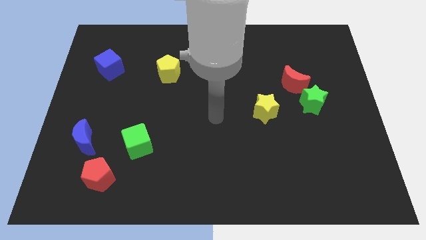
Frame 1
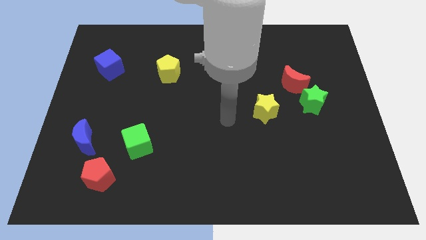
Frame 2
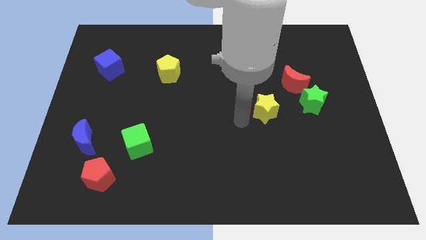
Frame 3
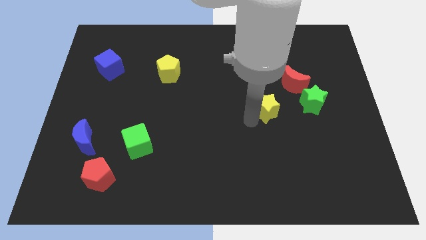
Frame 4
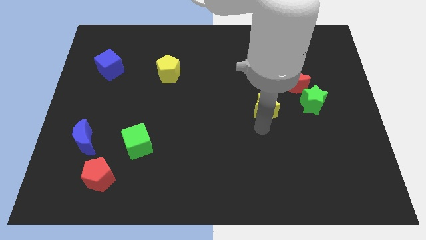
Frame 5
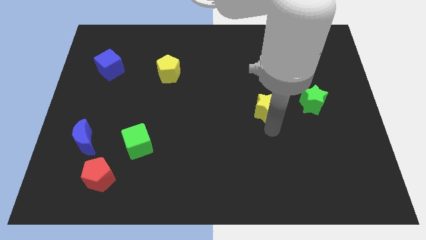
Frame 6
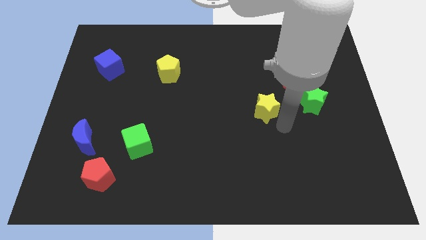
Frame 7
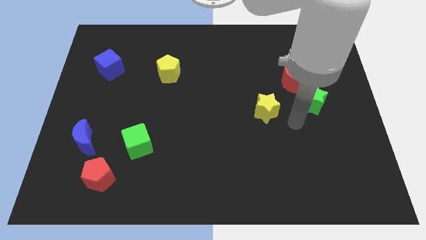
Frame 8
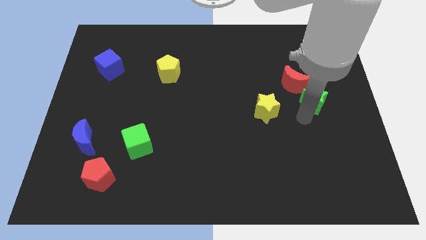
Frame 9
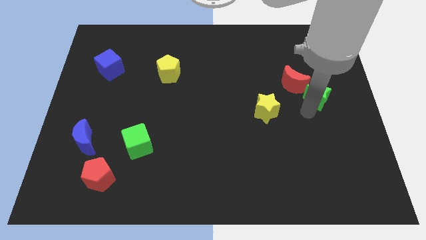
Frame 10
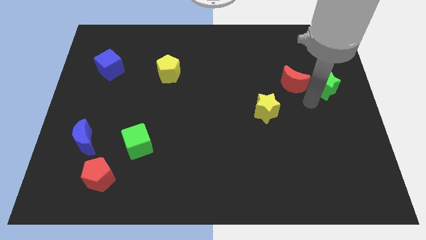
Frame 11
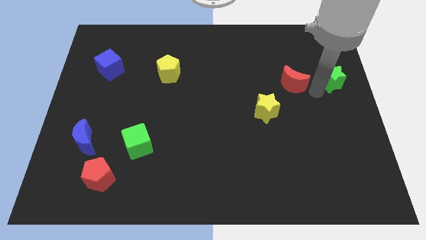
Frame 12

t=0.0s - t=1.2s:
separate the red moon from the green star

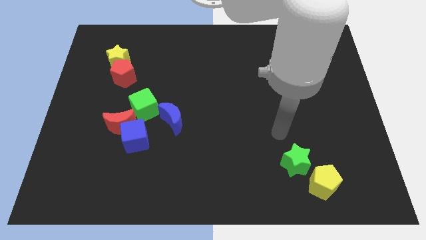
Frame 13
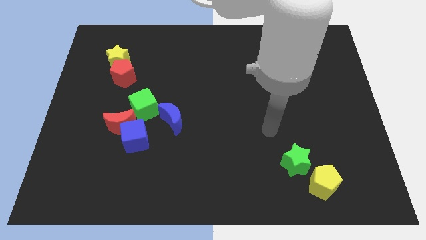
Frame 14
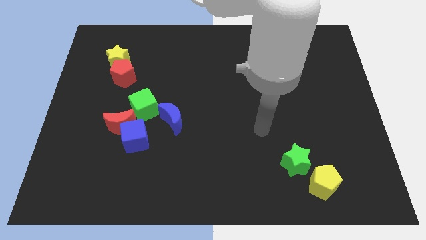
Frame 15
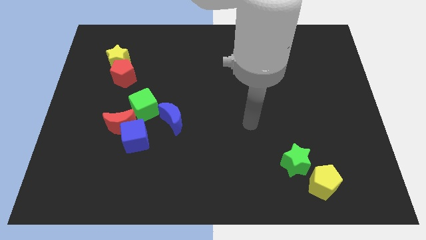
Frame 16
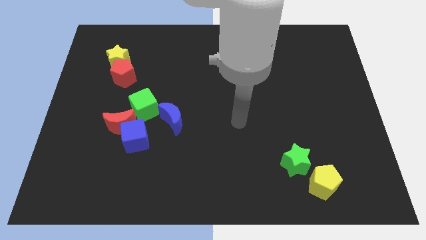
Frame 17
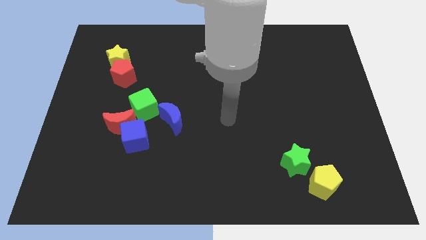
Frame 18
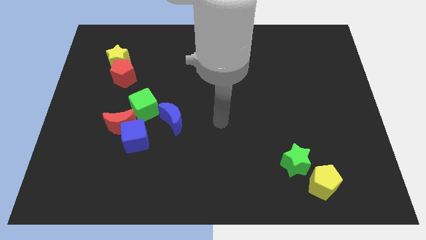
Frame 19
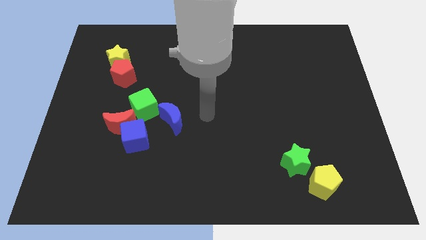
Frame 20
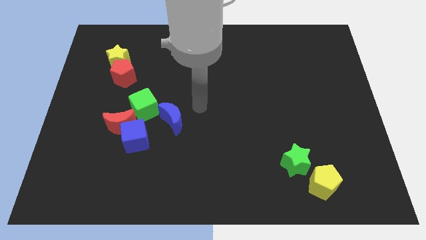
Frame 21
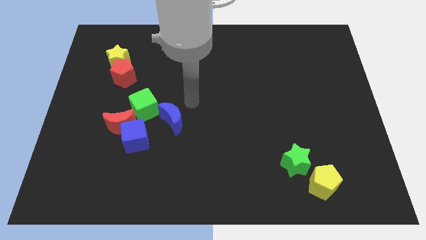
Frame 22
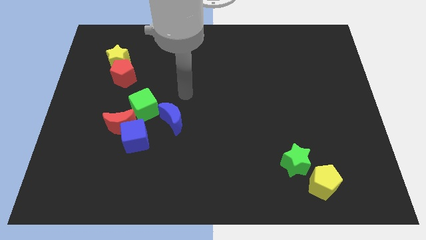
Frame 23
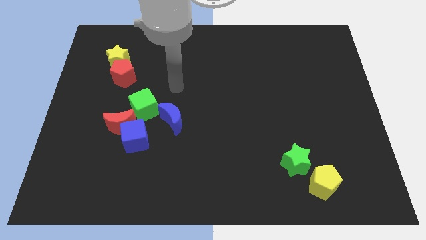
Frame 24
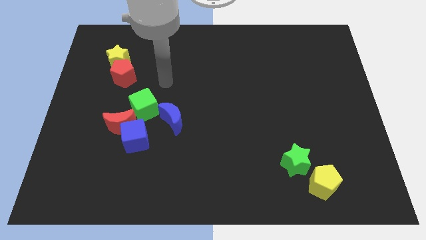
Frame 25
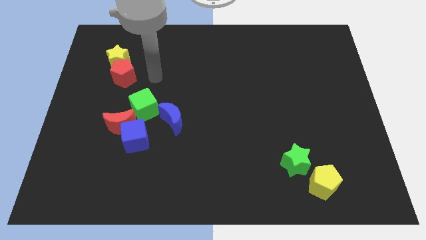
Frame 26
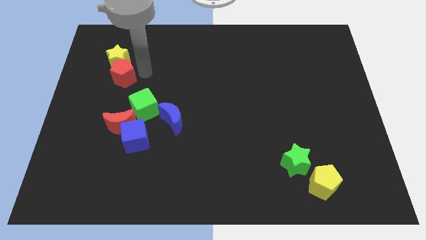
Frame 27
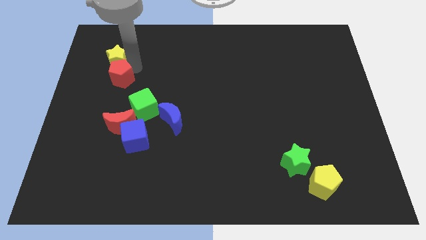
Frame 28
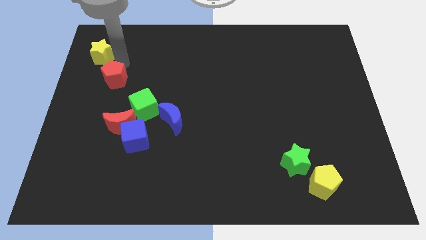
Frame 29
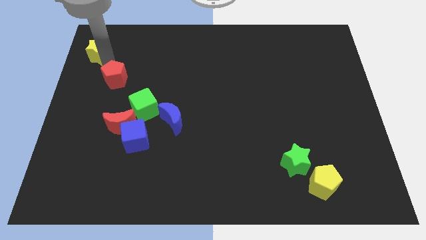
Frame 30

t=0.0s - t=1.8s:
pull the red pentagon apart from the yellow star

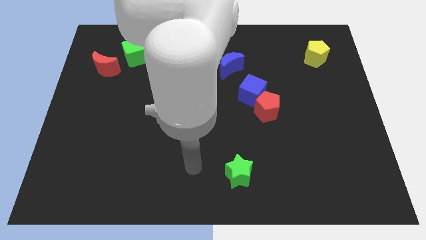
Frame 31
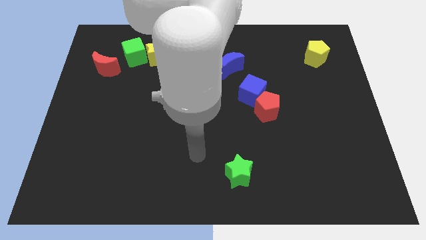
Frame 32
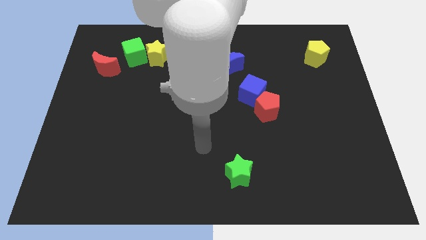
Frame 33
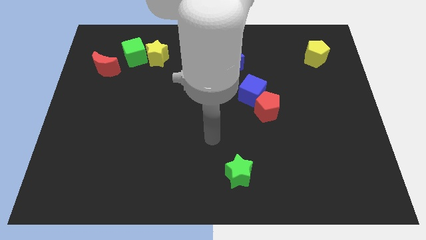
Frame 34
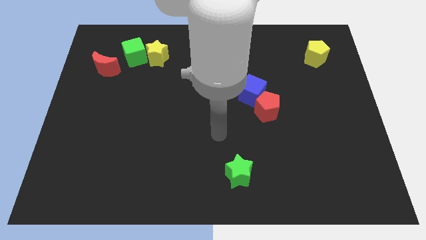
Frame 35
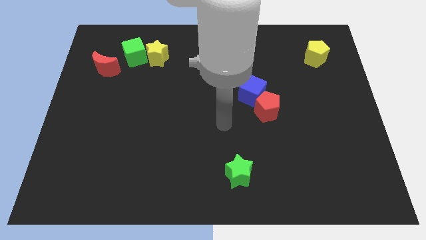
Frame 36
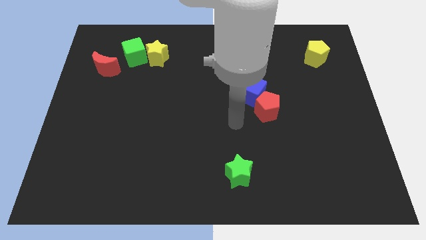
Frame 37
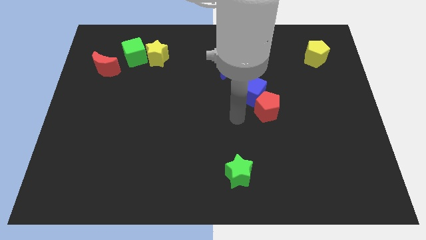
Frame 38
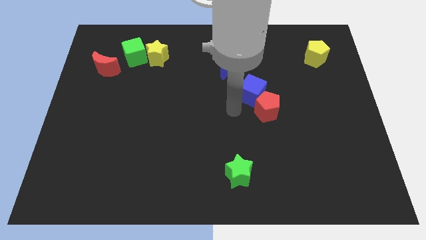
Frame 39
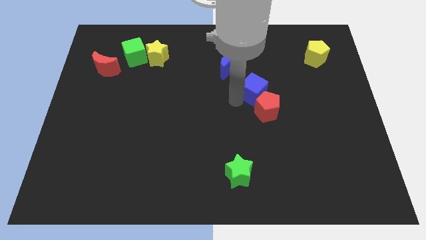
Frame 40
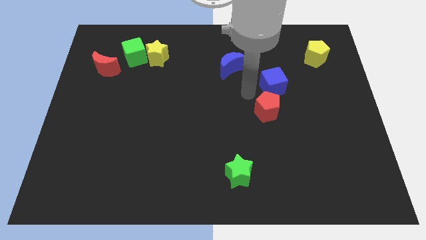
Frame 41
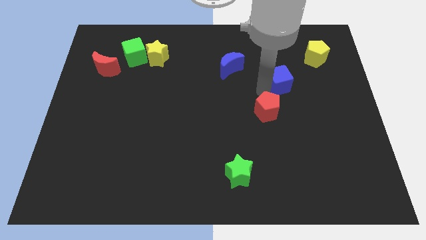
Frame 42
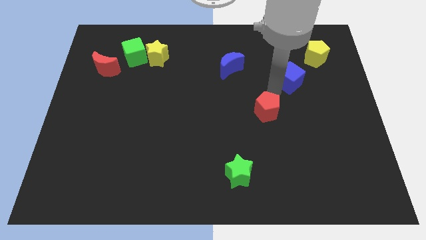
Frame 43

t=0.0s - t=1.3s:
separate the red pentagon from the blue cube

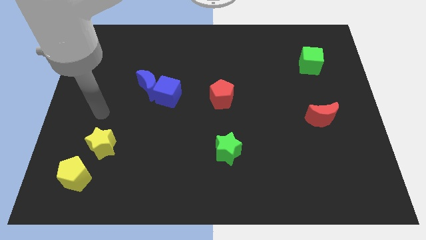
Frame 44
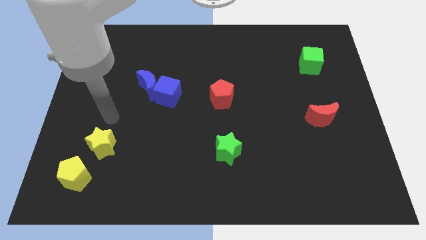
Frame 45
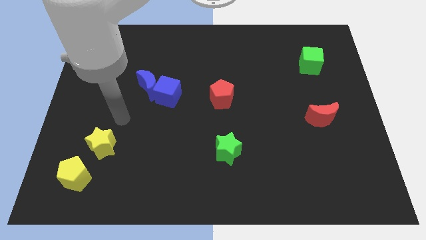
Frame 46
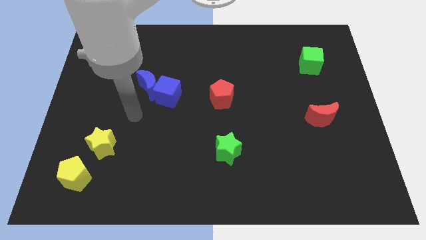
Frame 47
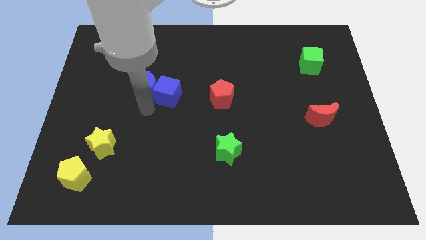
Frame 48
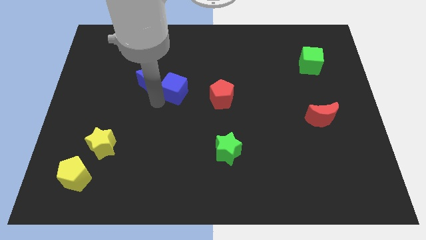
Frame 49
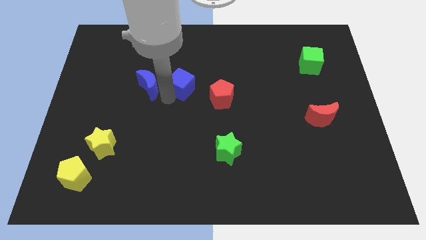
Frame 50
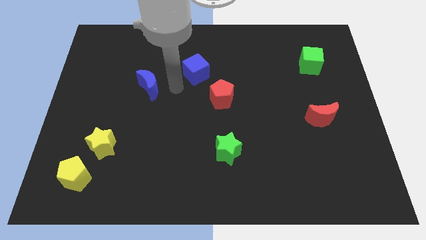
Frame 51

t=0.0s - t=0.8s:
separate the blue moon from the blue cube

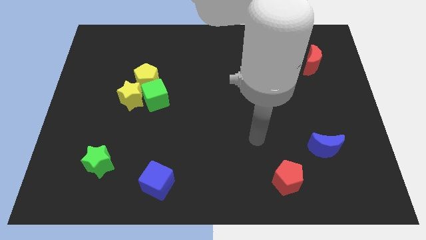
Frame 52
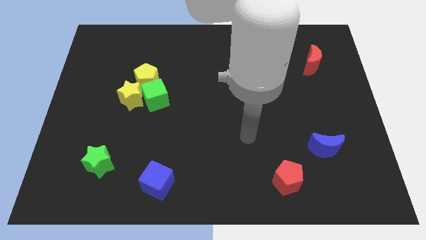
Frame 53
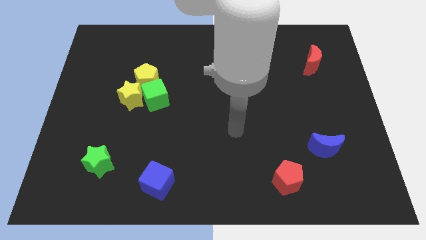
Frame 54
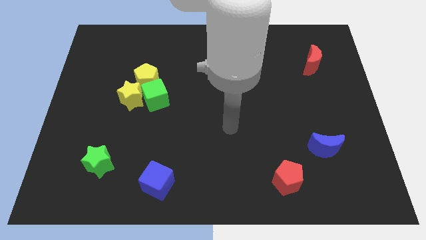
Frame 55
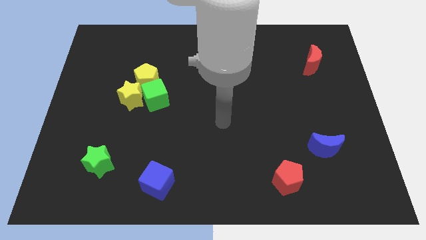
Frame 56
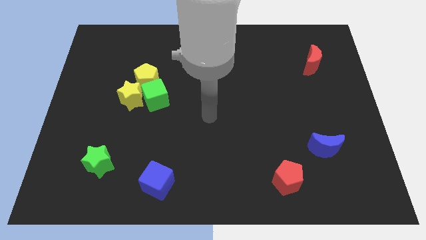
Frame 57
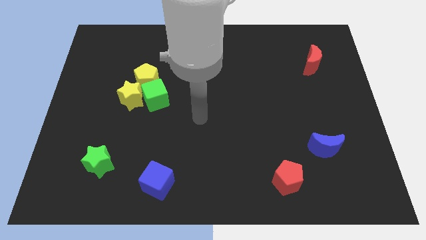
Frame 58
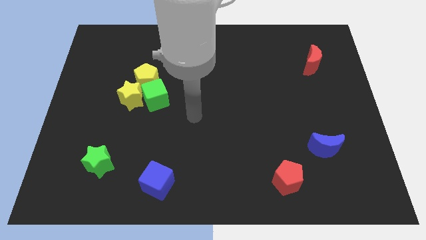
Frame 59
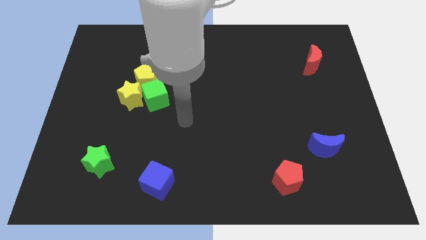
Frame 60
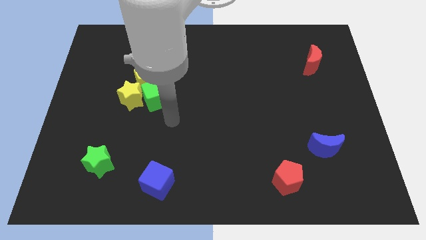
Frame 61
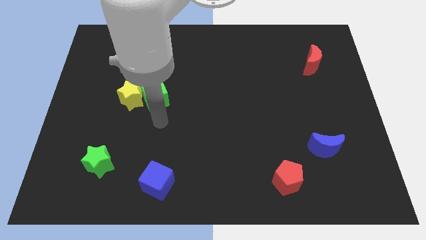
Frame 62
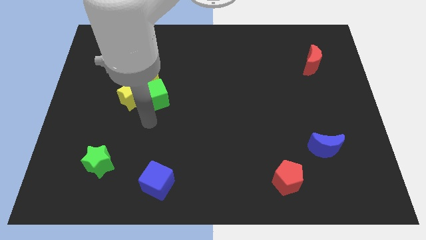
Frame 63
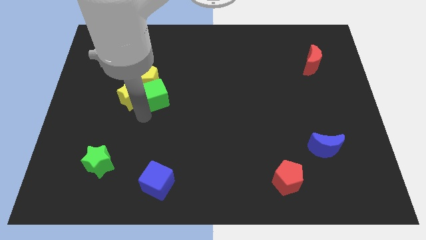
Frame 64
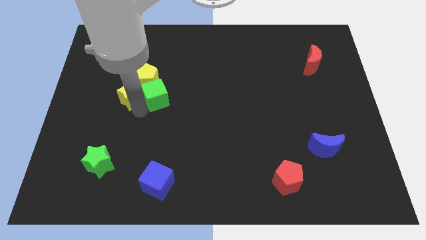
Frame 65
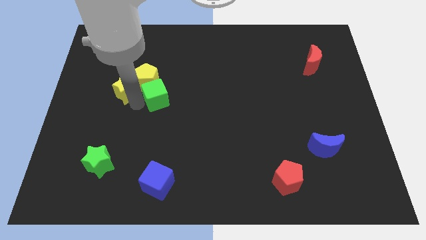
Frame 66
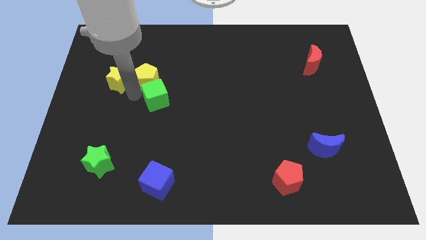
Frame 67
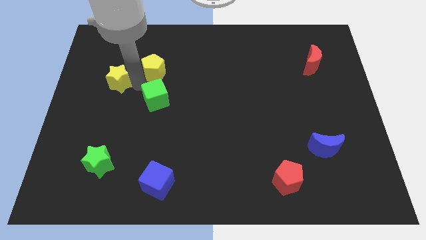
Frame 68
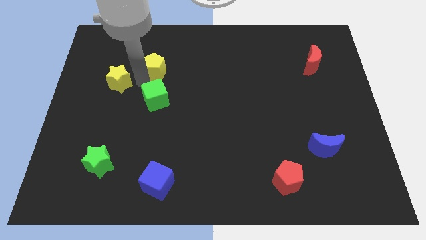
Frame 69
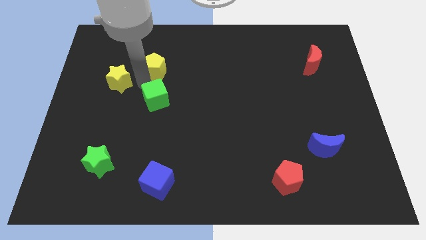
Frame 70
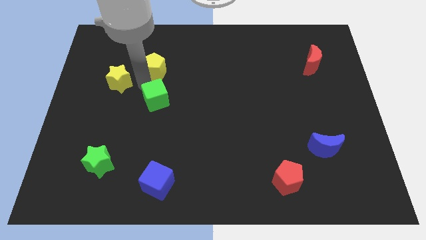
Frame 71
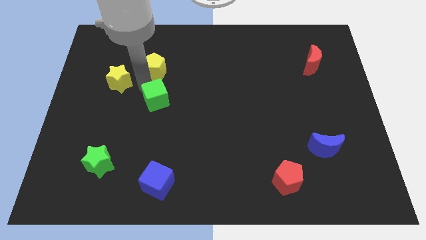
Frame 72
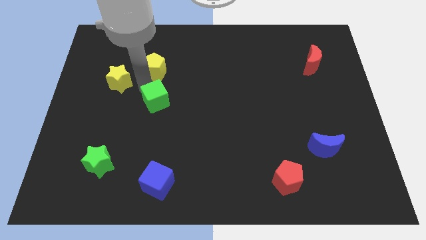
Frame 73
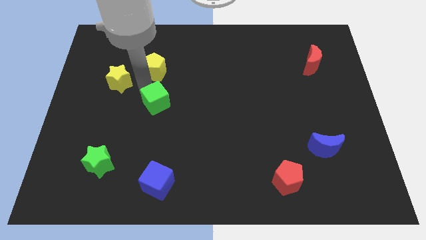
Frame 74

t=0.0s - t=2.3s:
separate the green cube from the yellow star and yellow pentagon

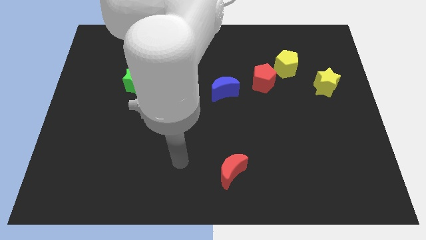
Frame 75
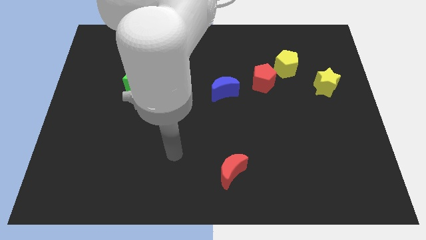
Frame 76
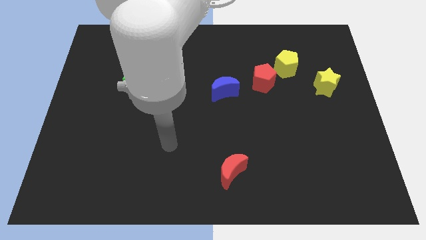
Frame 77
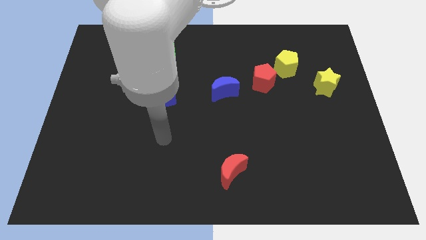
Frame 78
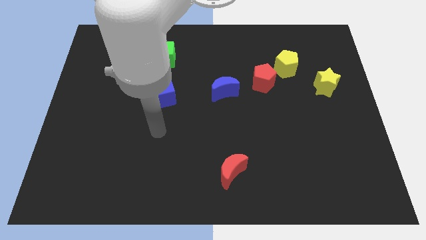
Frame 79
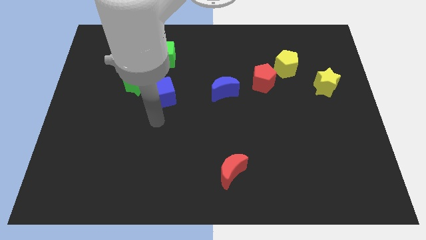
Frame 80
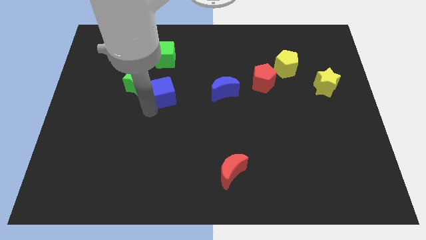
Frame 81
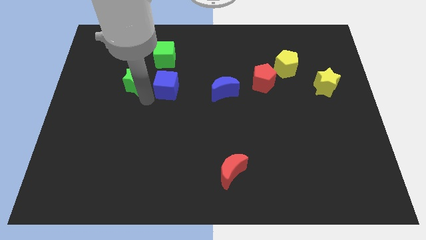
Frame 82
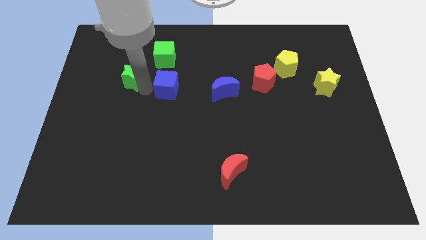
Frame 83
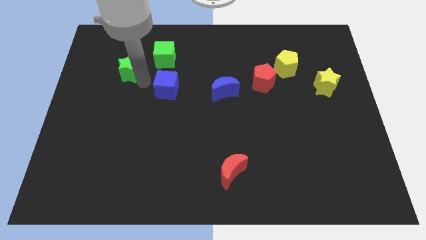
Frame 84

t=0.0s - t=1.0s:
move the blue cube away from the green star

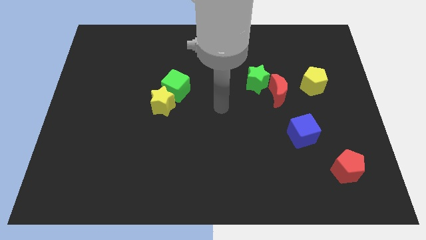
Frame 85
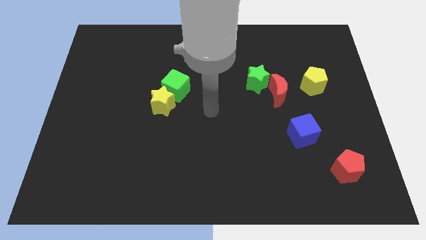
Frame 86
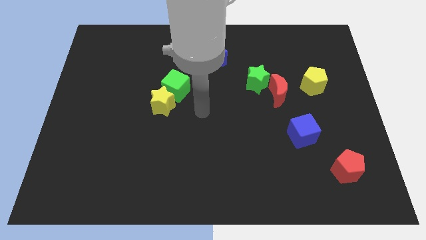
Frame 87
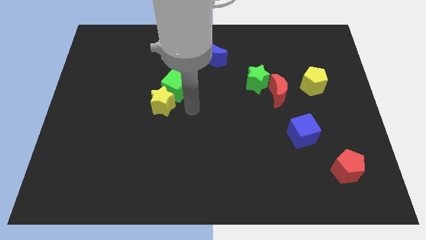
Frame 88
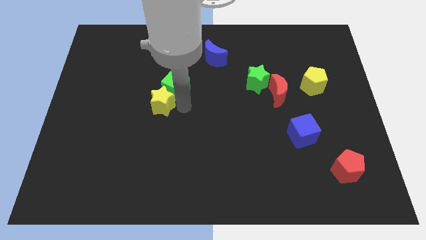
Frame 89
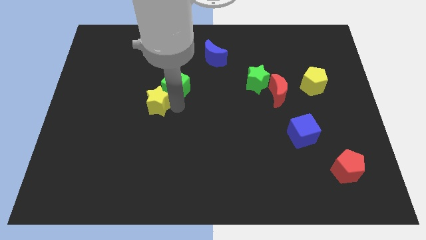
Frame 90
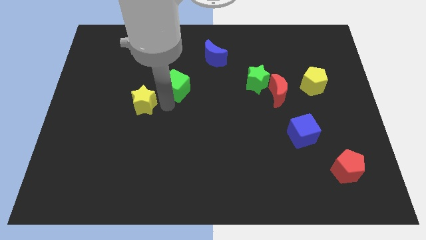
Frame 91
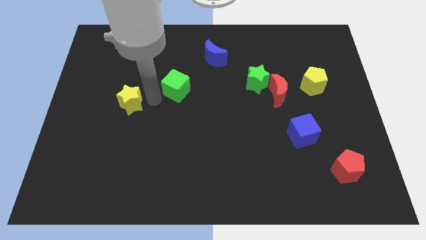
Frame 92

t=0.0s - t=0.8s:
pull the green cube apart from the yellow star

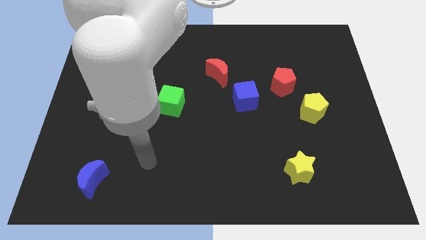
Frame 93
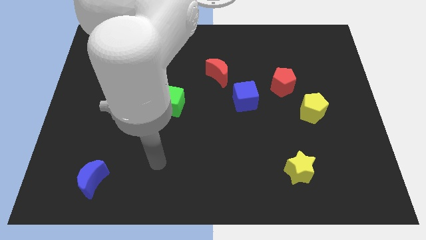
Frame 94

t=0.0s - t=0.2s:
pull the red pentagon apart from the yellow pentagon

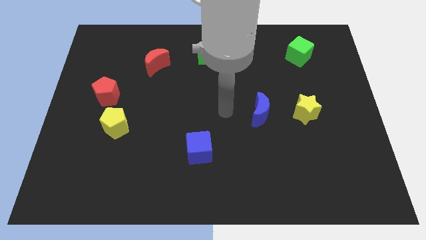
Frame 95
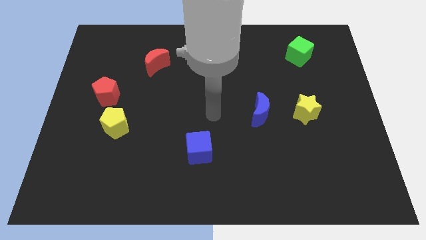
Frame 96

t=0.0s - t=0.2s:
separate the red pentagon from the yellow pentagon
